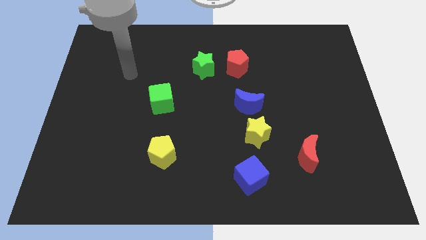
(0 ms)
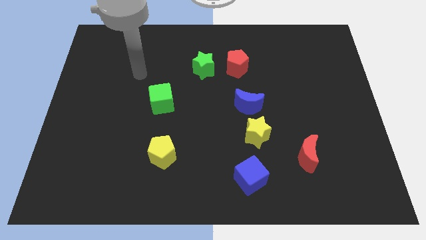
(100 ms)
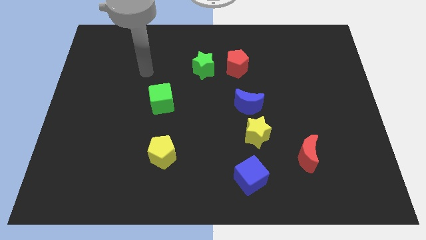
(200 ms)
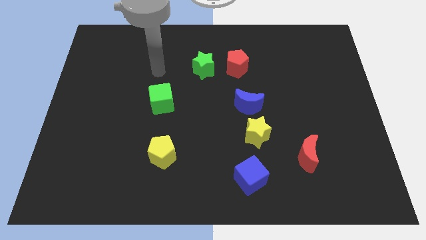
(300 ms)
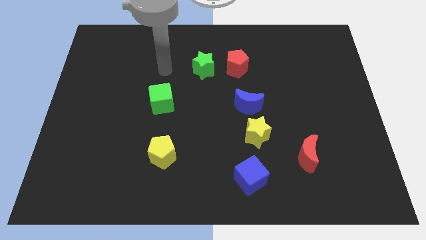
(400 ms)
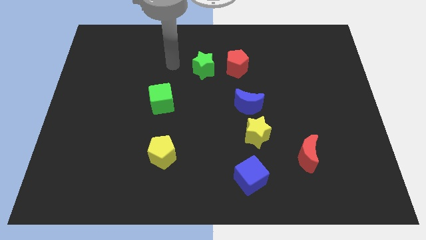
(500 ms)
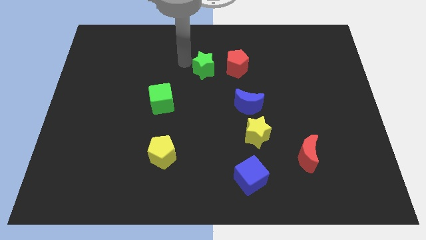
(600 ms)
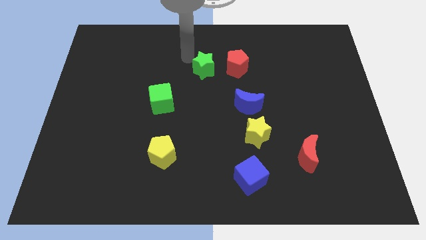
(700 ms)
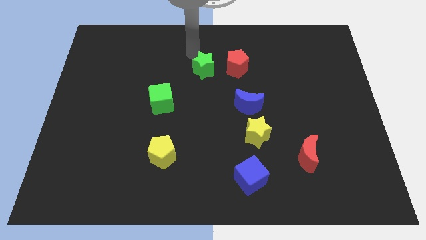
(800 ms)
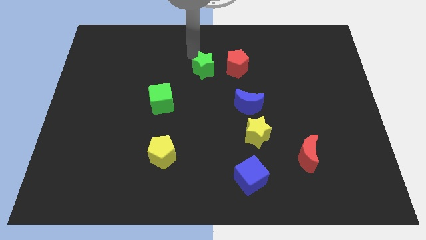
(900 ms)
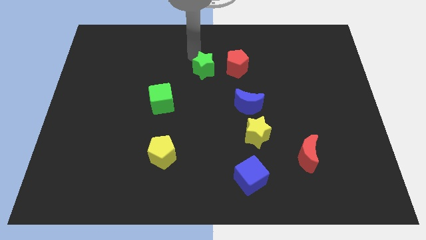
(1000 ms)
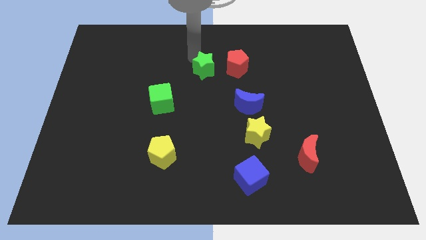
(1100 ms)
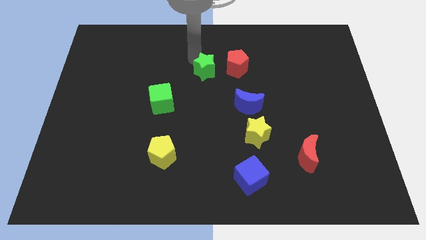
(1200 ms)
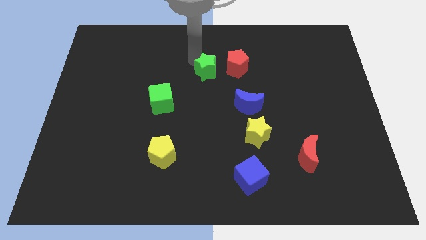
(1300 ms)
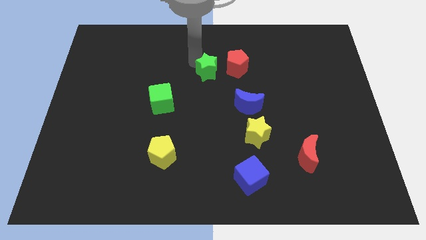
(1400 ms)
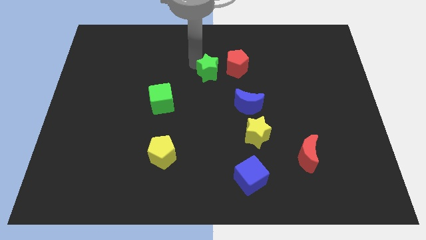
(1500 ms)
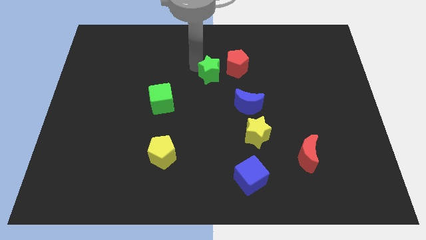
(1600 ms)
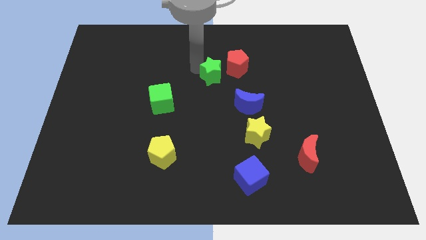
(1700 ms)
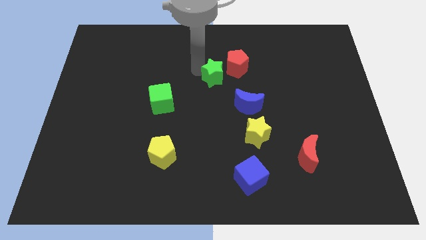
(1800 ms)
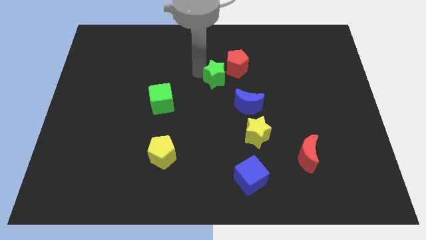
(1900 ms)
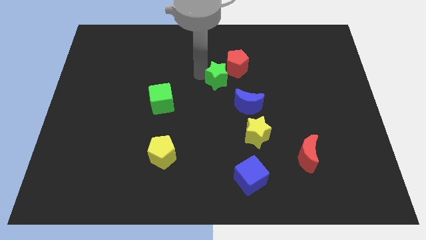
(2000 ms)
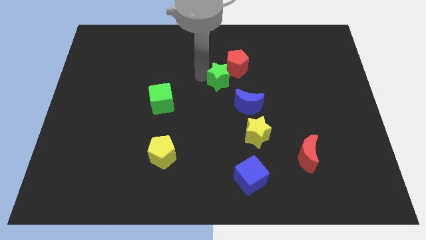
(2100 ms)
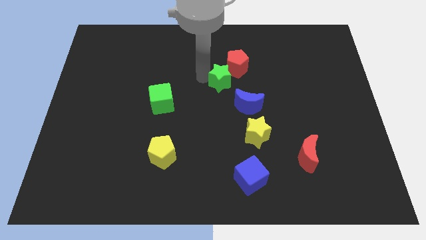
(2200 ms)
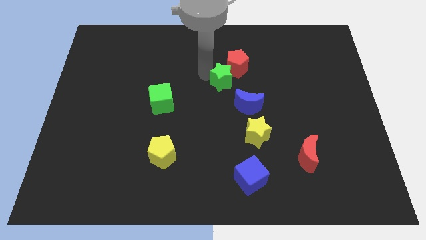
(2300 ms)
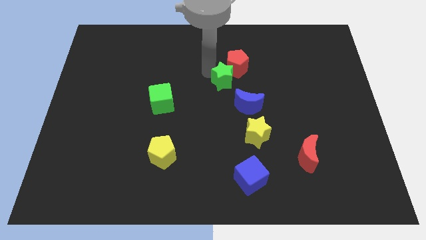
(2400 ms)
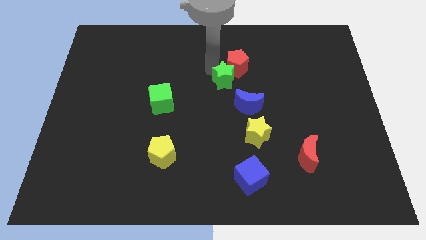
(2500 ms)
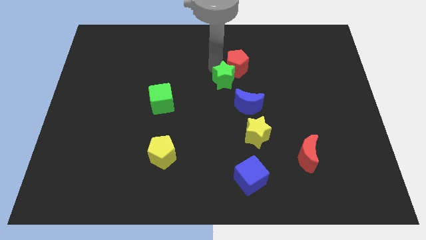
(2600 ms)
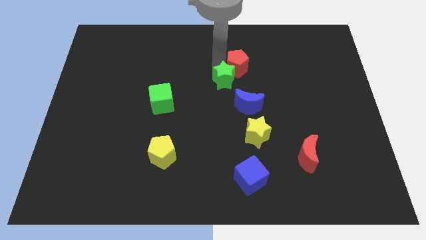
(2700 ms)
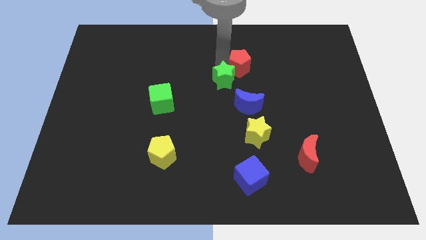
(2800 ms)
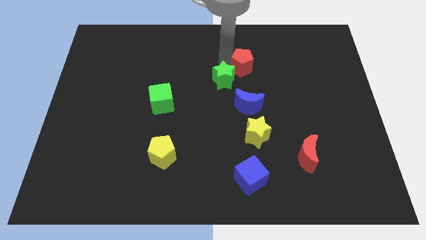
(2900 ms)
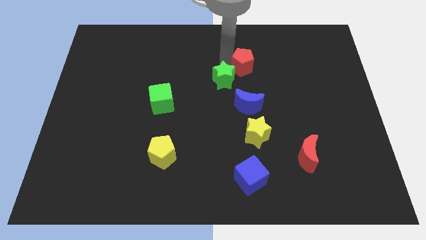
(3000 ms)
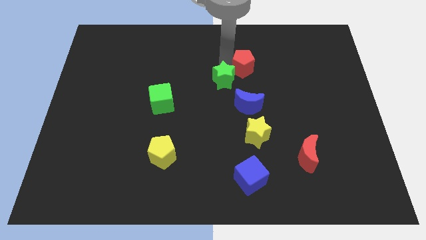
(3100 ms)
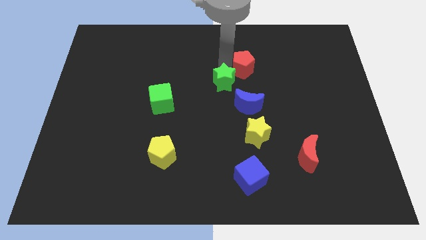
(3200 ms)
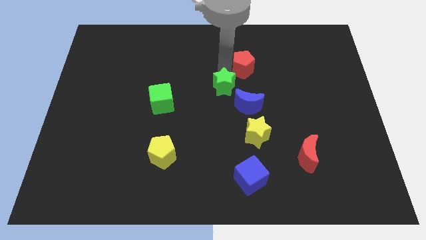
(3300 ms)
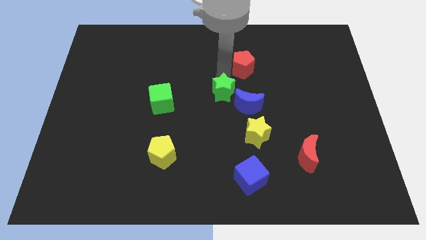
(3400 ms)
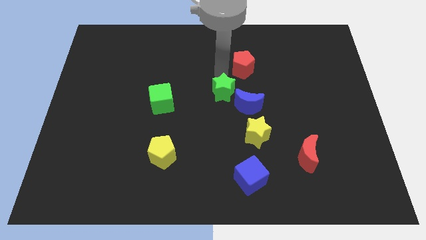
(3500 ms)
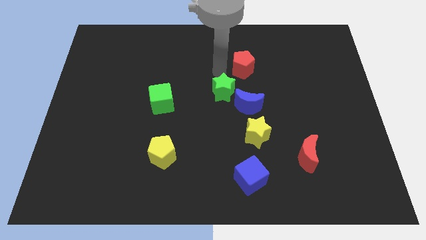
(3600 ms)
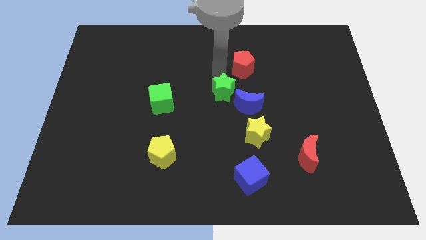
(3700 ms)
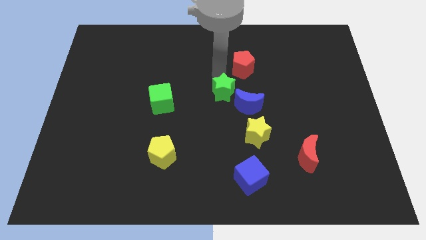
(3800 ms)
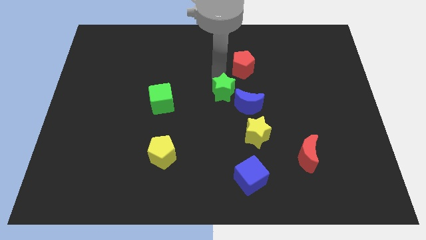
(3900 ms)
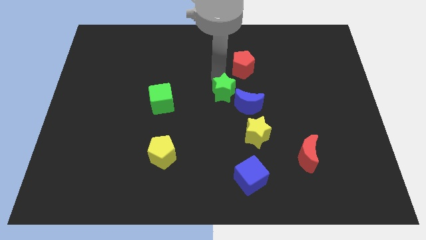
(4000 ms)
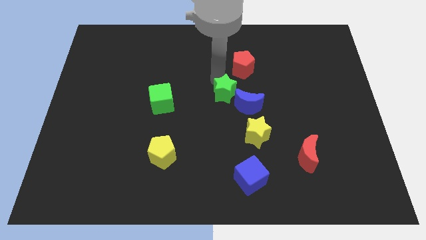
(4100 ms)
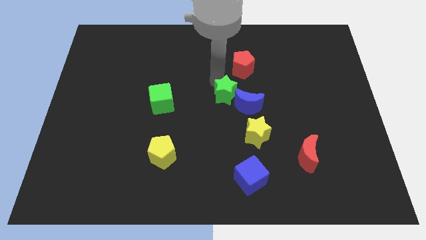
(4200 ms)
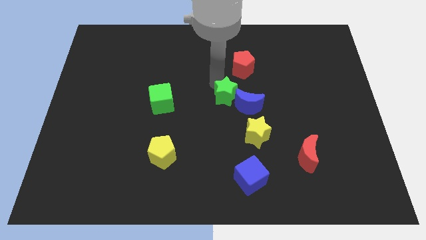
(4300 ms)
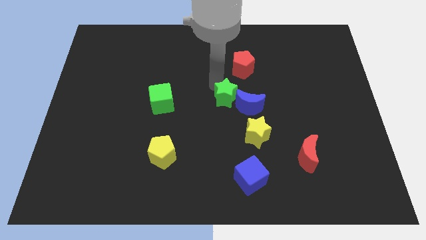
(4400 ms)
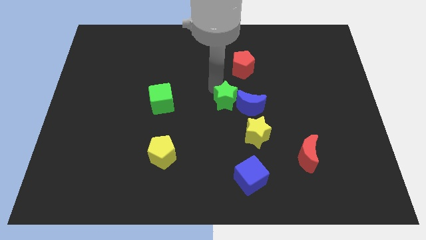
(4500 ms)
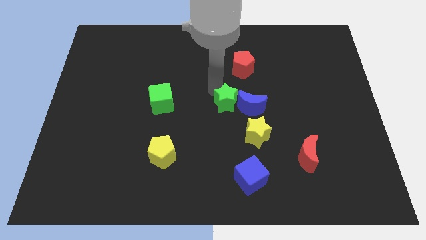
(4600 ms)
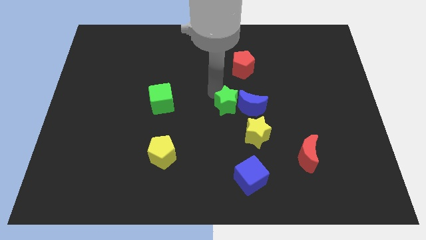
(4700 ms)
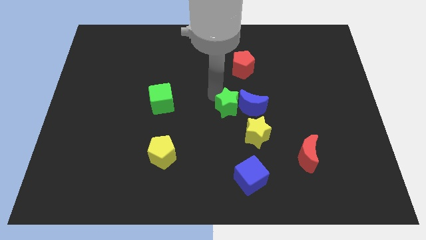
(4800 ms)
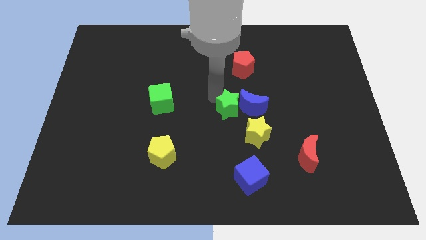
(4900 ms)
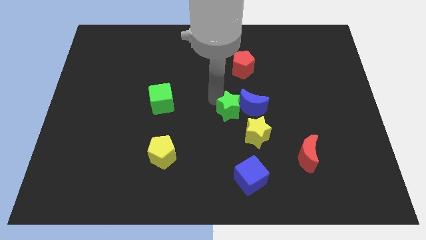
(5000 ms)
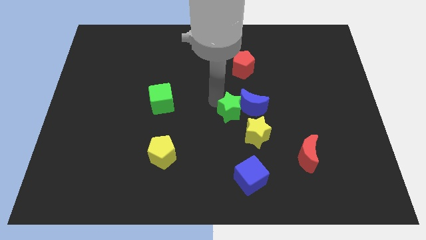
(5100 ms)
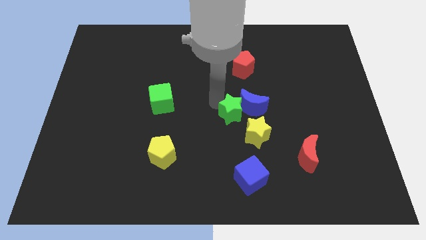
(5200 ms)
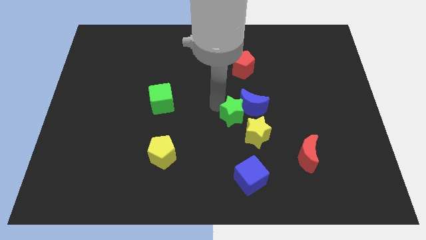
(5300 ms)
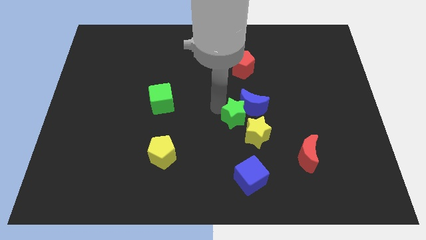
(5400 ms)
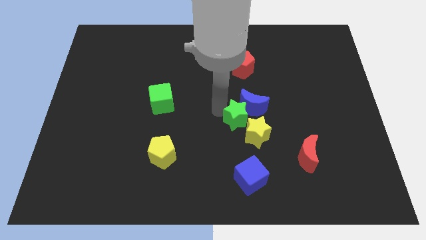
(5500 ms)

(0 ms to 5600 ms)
push the green star to the bottom side of the blue moon

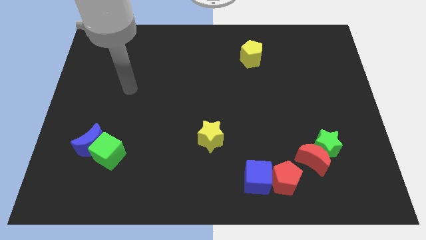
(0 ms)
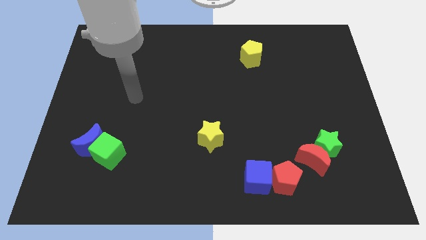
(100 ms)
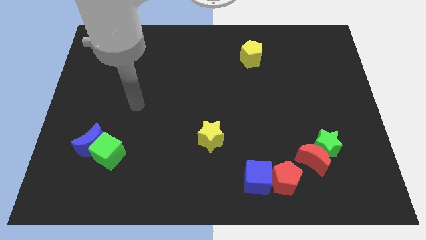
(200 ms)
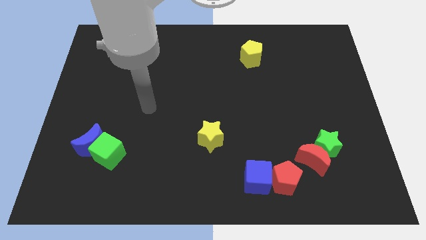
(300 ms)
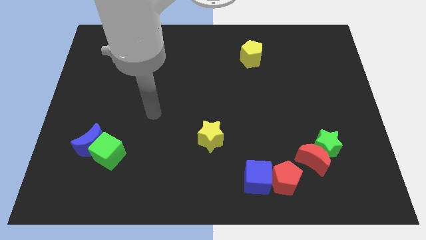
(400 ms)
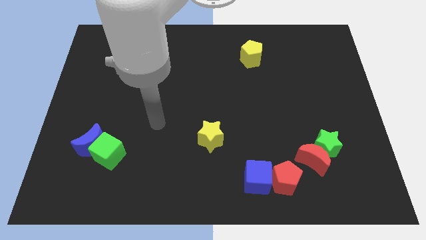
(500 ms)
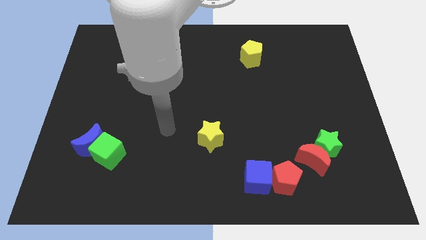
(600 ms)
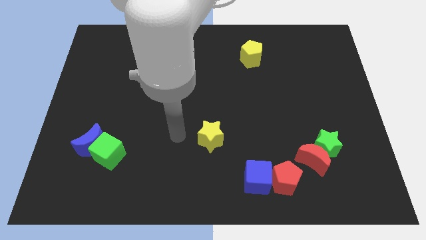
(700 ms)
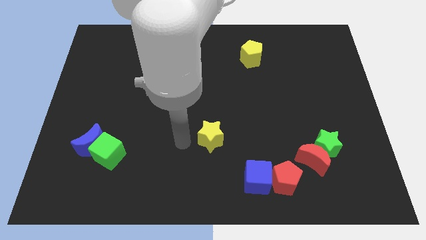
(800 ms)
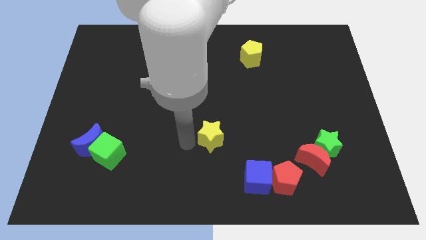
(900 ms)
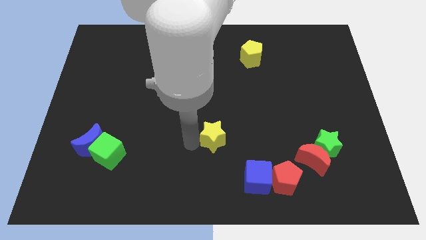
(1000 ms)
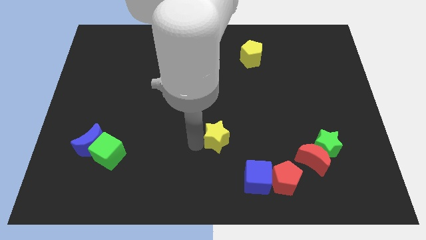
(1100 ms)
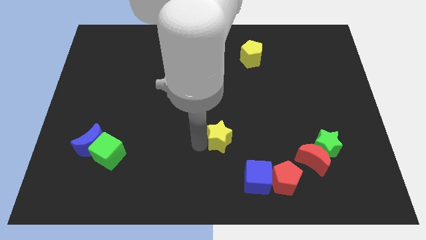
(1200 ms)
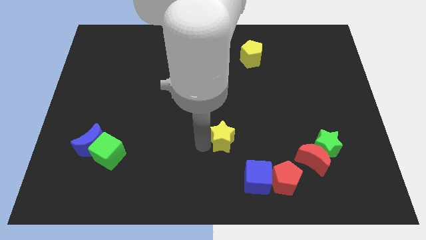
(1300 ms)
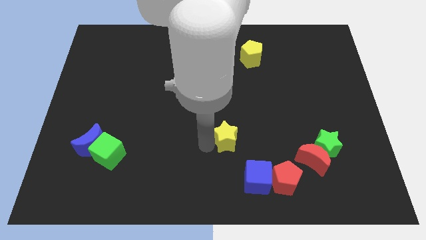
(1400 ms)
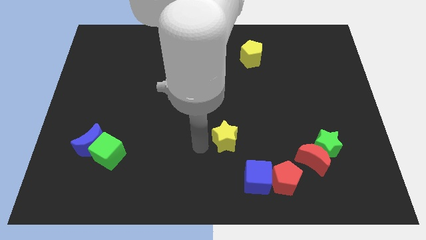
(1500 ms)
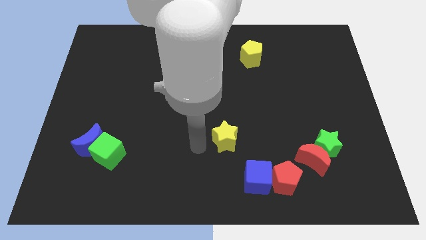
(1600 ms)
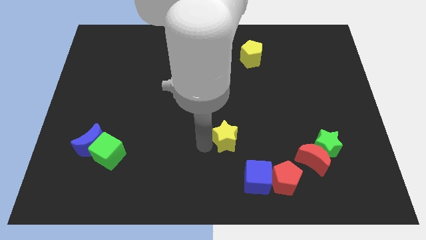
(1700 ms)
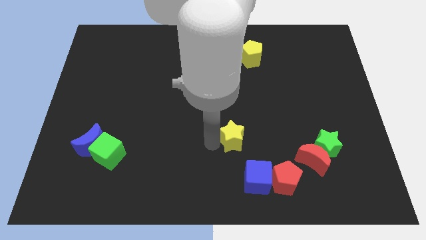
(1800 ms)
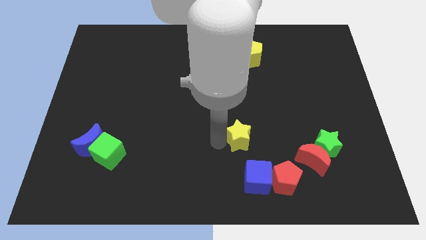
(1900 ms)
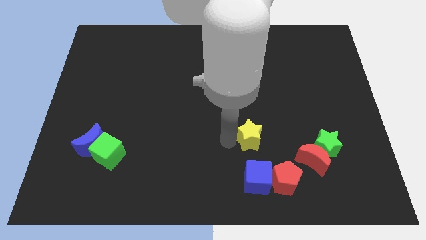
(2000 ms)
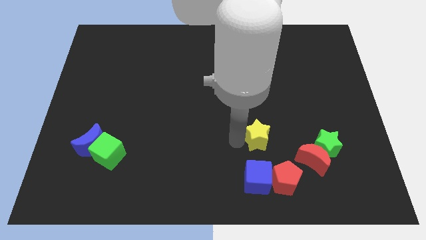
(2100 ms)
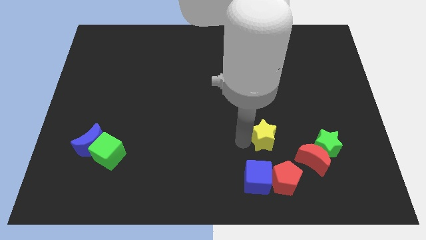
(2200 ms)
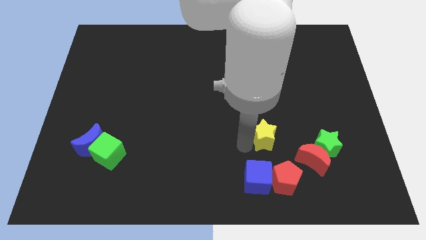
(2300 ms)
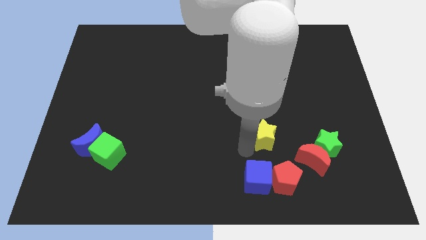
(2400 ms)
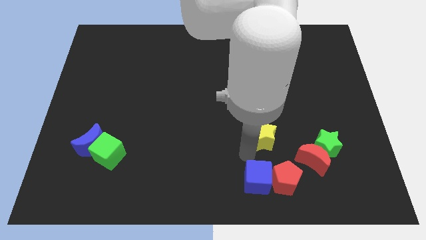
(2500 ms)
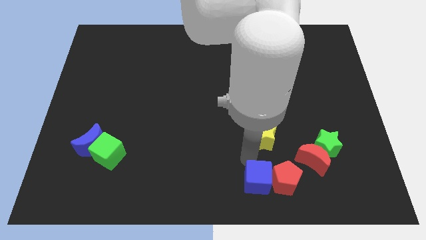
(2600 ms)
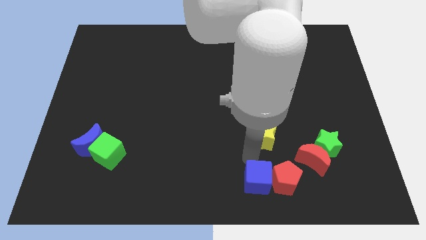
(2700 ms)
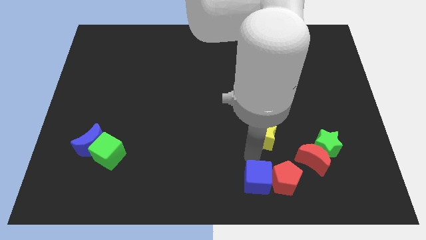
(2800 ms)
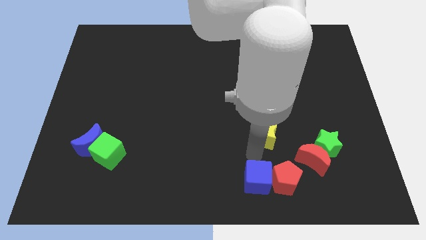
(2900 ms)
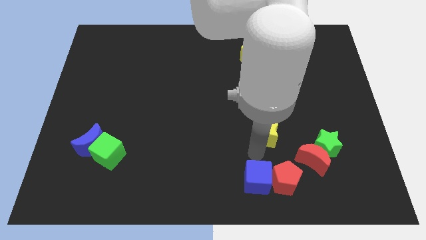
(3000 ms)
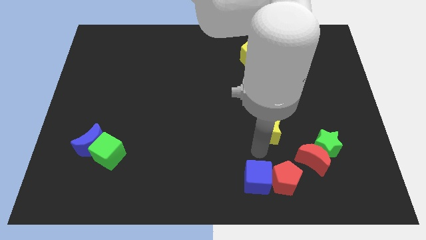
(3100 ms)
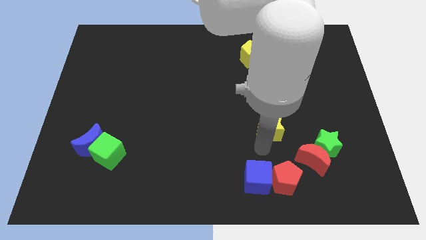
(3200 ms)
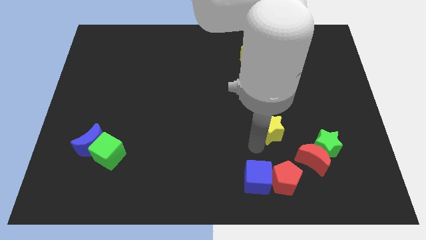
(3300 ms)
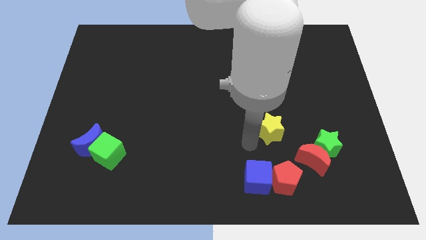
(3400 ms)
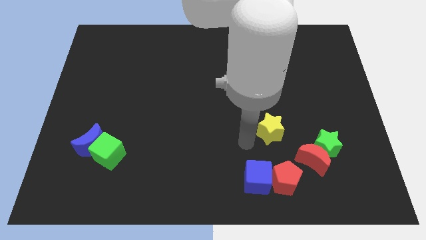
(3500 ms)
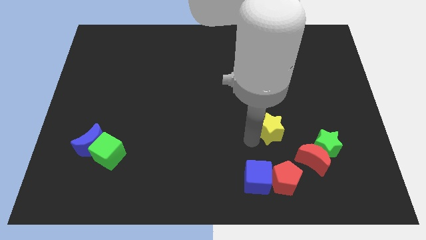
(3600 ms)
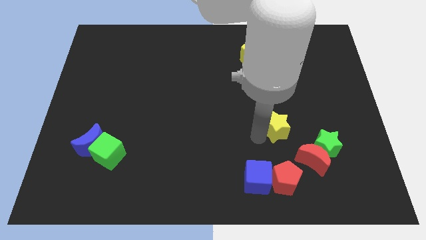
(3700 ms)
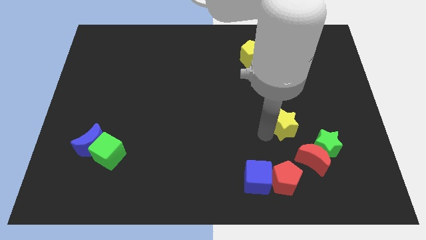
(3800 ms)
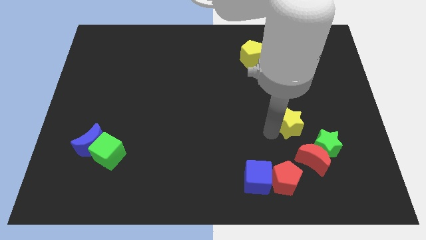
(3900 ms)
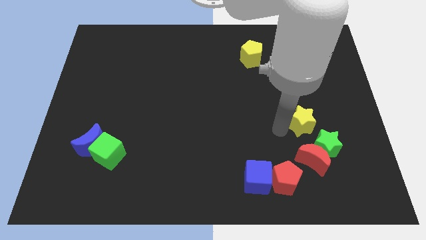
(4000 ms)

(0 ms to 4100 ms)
put the yellow star to the top side of the green star
